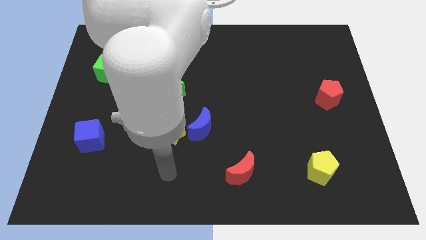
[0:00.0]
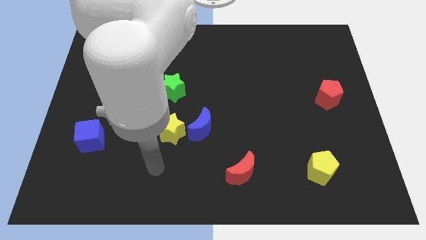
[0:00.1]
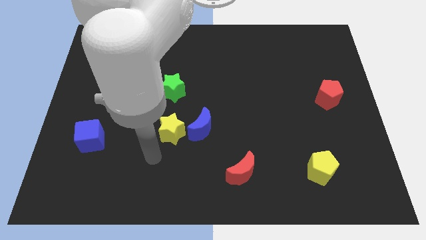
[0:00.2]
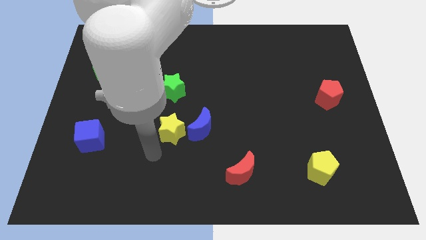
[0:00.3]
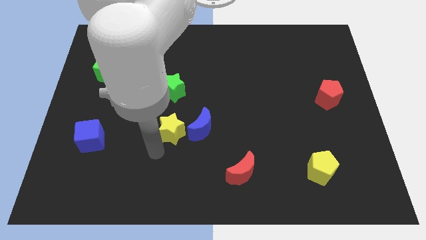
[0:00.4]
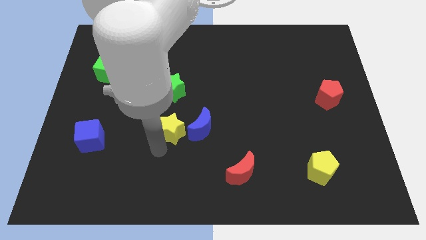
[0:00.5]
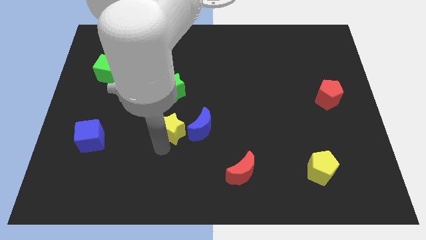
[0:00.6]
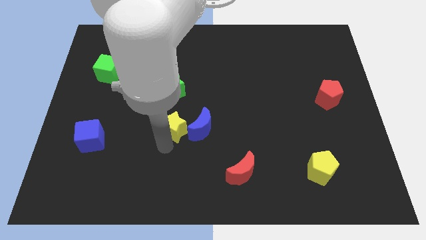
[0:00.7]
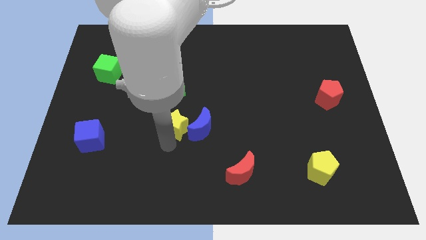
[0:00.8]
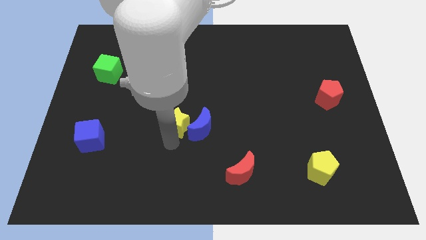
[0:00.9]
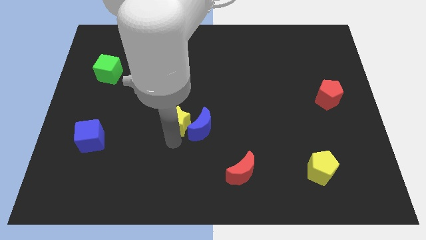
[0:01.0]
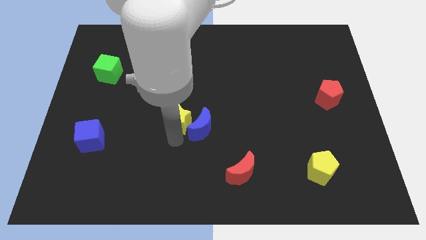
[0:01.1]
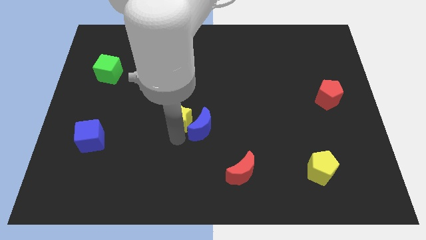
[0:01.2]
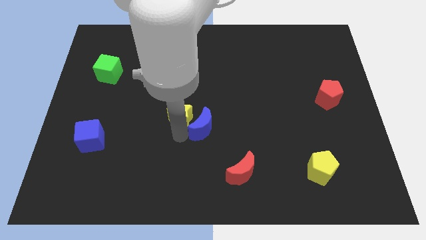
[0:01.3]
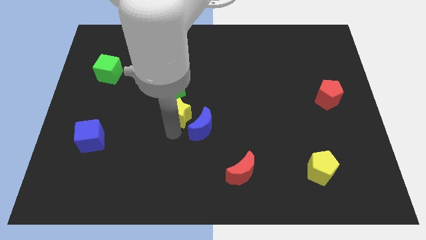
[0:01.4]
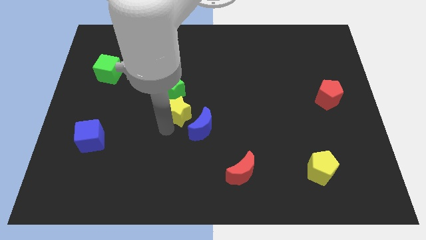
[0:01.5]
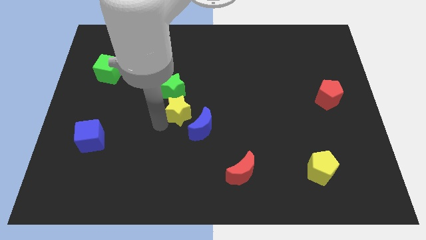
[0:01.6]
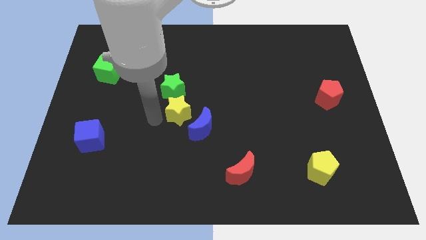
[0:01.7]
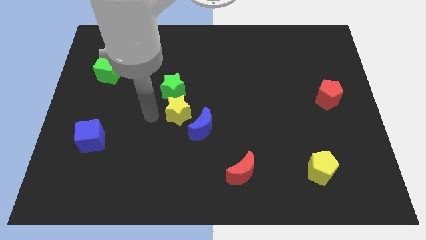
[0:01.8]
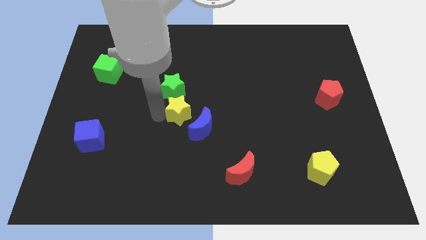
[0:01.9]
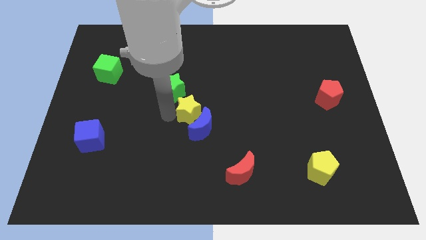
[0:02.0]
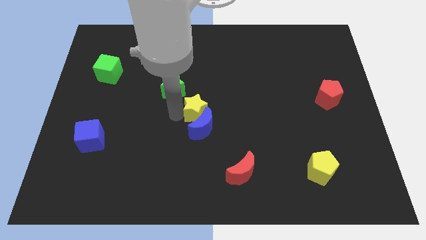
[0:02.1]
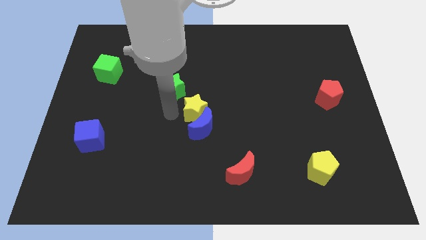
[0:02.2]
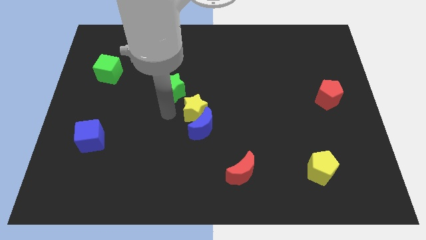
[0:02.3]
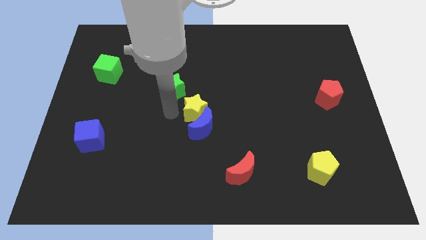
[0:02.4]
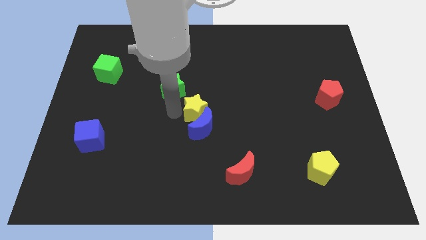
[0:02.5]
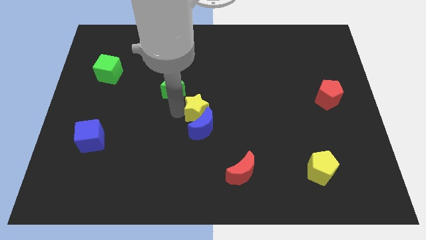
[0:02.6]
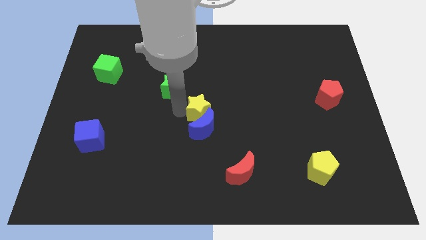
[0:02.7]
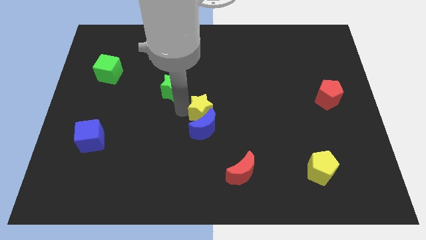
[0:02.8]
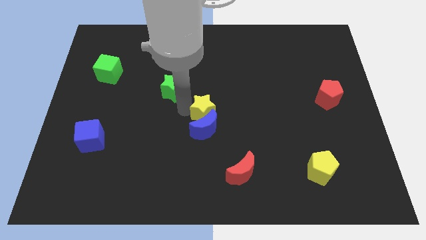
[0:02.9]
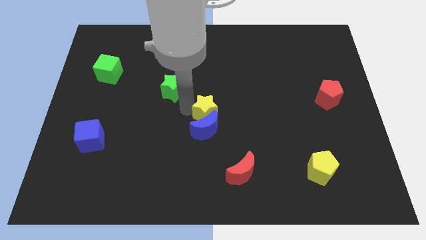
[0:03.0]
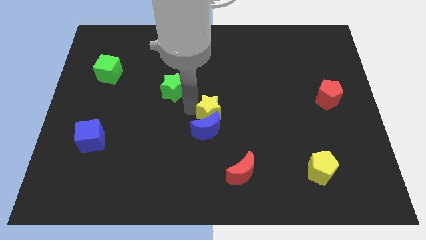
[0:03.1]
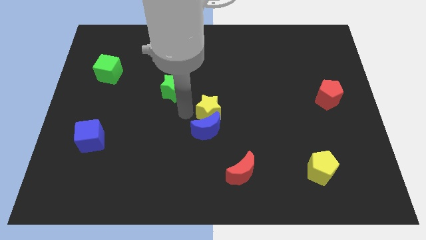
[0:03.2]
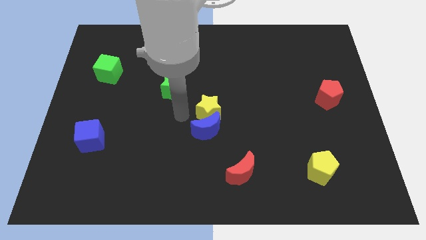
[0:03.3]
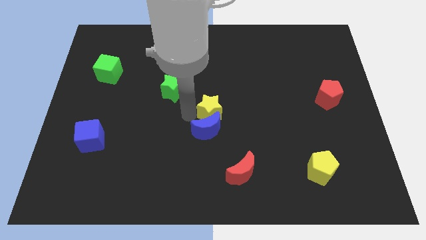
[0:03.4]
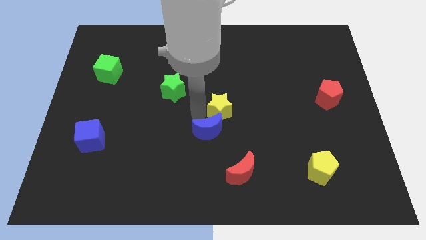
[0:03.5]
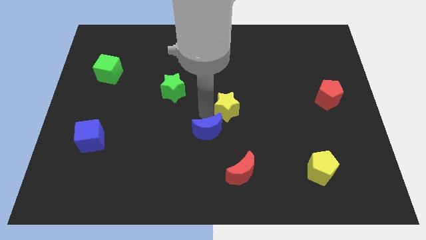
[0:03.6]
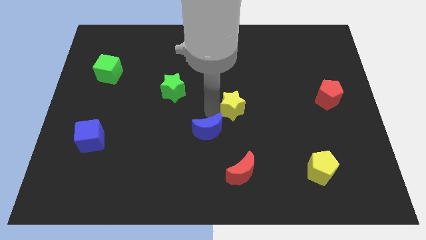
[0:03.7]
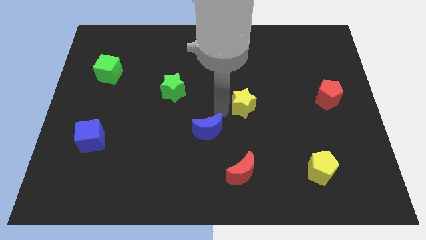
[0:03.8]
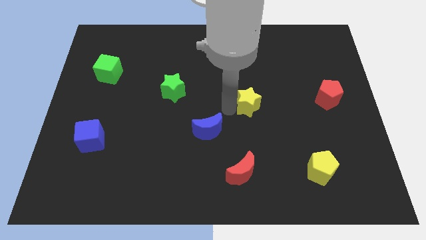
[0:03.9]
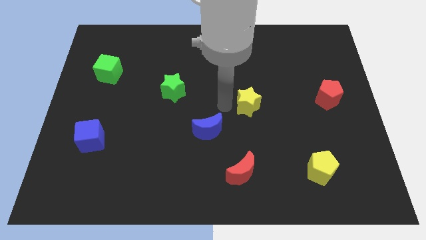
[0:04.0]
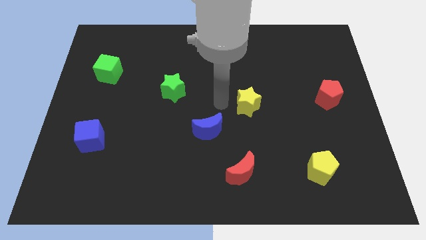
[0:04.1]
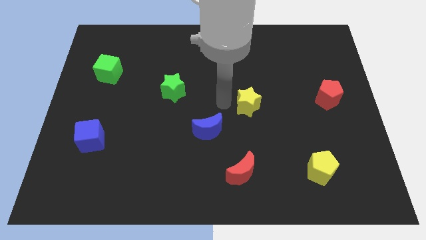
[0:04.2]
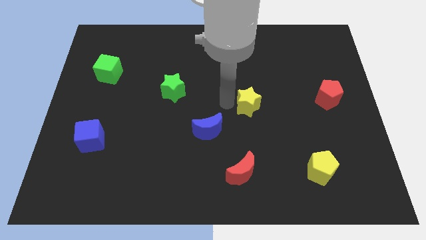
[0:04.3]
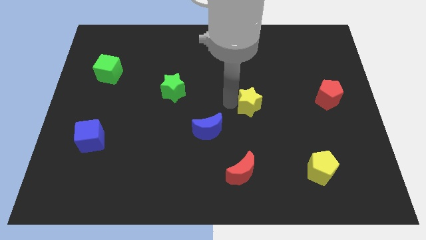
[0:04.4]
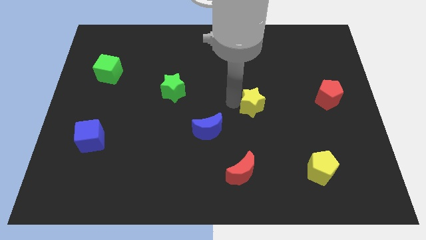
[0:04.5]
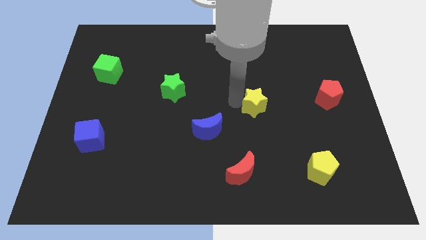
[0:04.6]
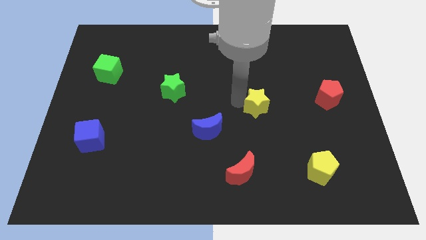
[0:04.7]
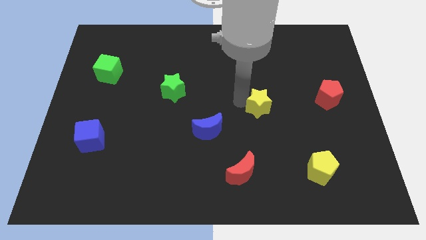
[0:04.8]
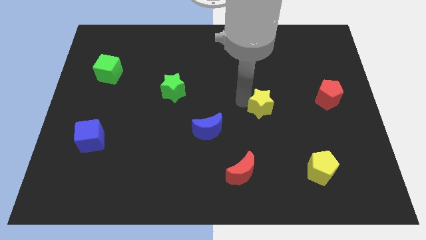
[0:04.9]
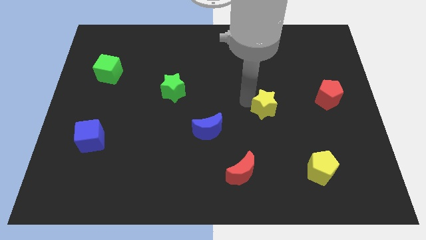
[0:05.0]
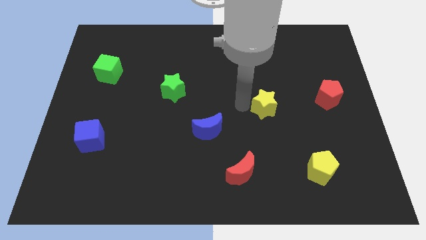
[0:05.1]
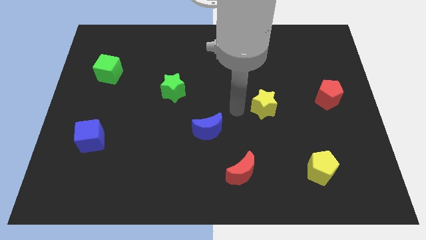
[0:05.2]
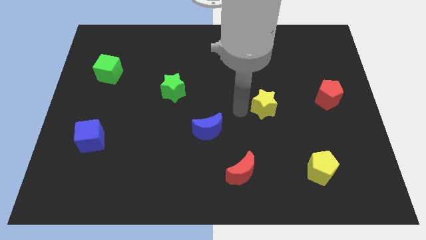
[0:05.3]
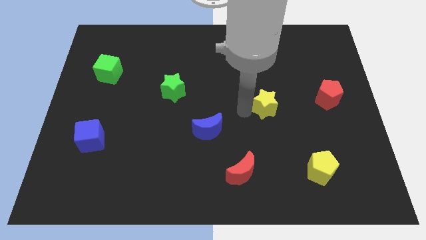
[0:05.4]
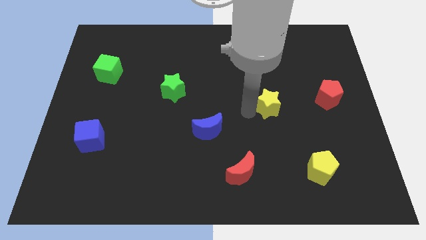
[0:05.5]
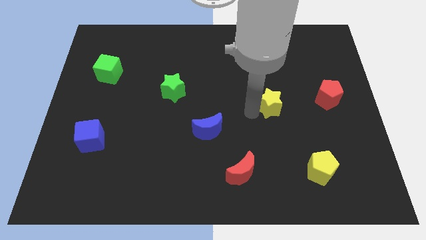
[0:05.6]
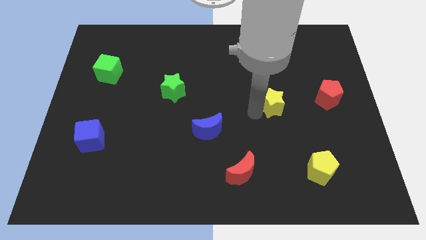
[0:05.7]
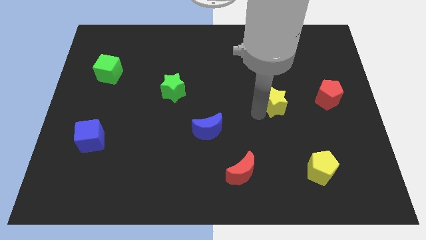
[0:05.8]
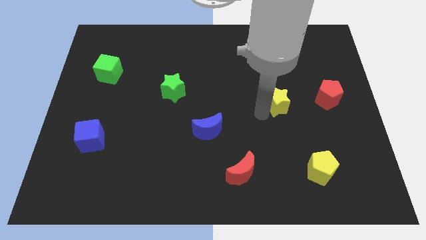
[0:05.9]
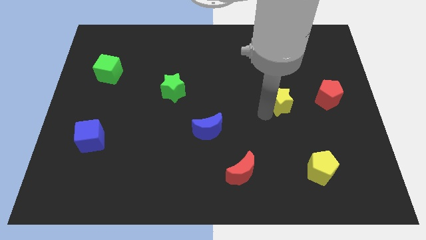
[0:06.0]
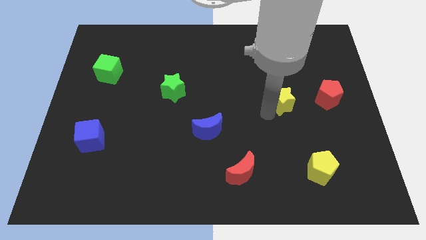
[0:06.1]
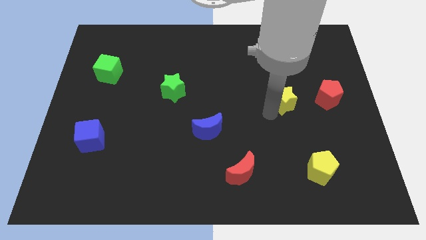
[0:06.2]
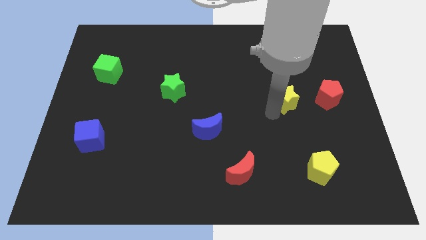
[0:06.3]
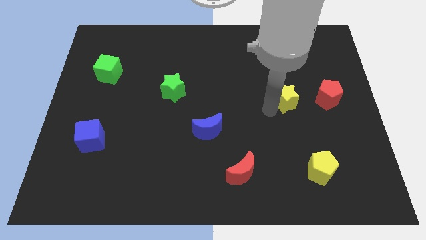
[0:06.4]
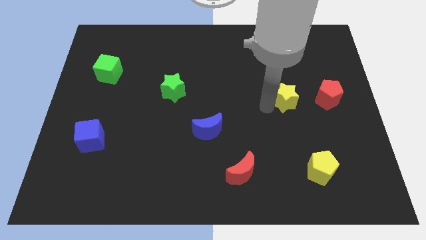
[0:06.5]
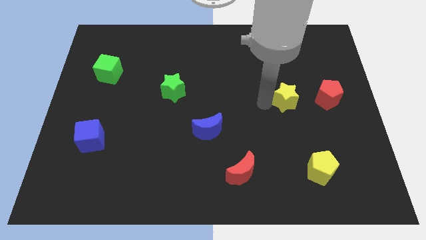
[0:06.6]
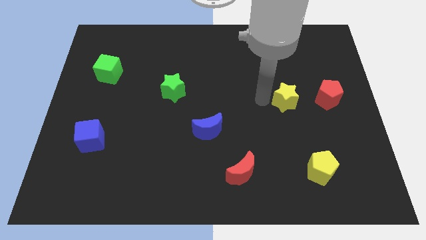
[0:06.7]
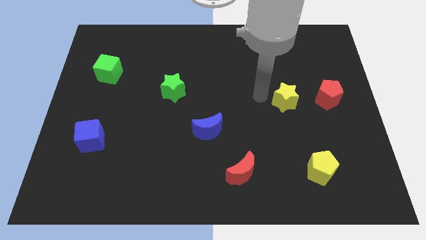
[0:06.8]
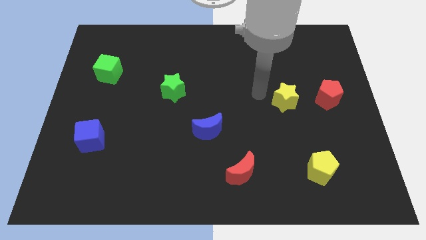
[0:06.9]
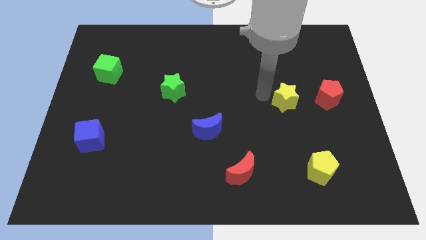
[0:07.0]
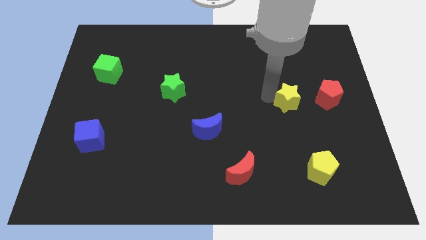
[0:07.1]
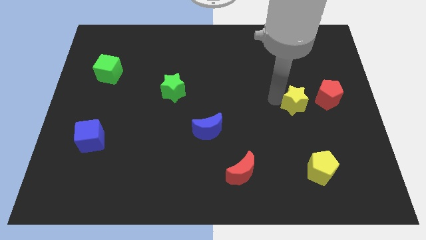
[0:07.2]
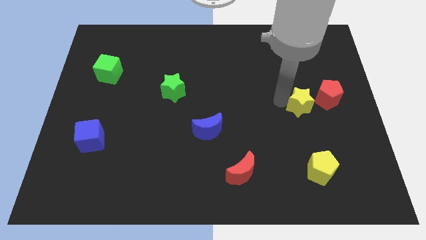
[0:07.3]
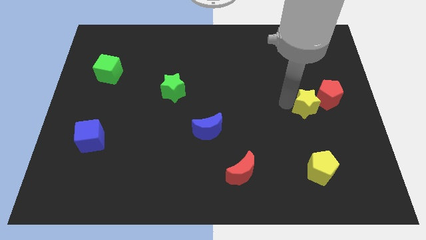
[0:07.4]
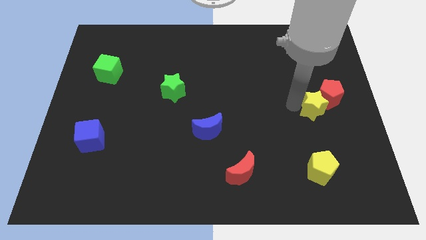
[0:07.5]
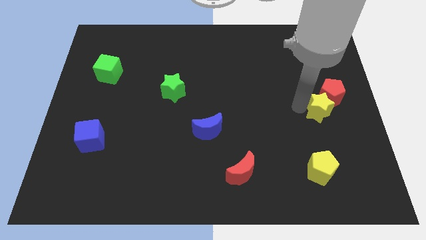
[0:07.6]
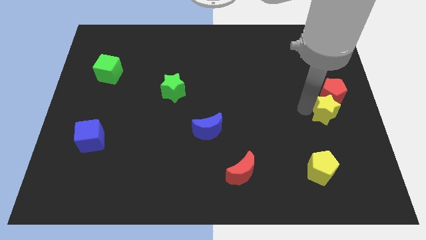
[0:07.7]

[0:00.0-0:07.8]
slide the yellow star to the center right
